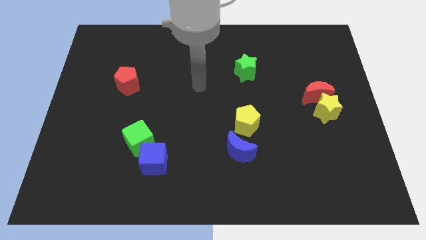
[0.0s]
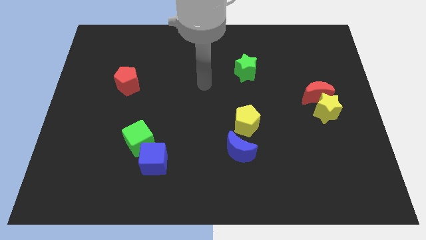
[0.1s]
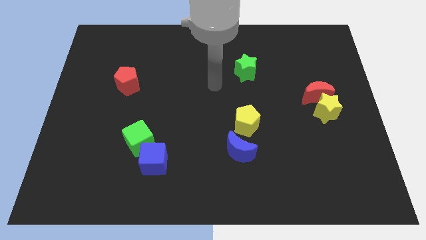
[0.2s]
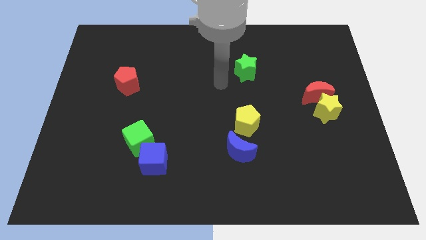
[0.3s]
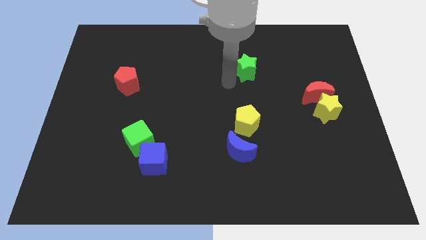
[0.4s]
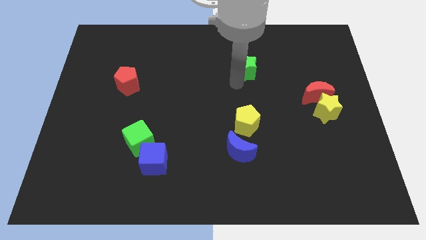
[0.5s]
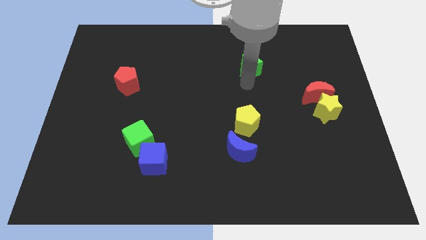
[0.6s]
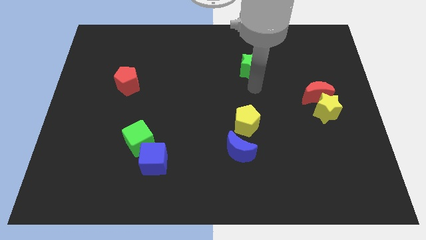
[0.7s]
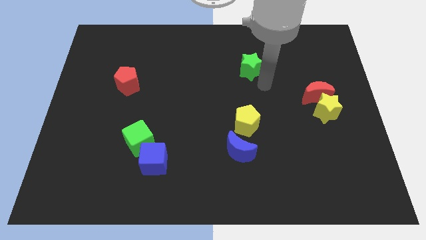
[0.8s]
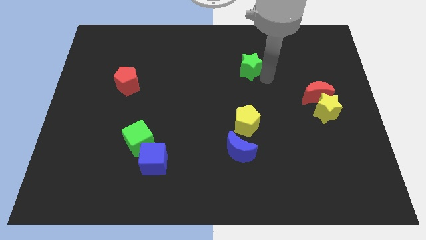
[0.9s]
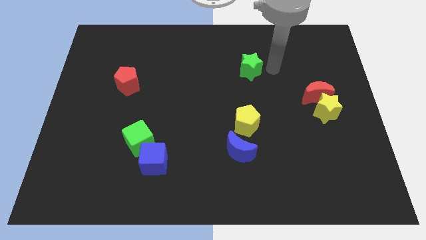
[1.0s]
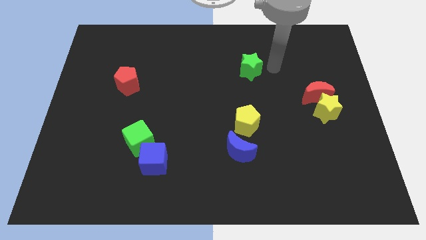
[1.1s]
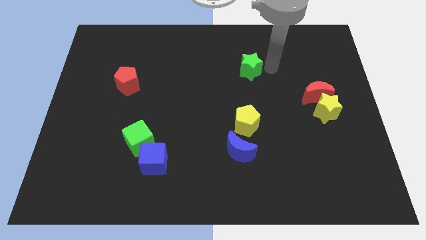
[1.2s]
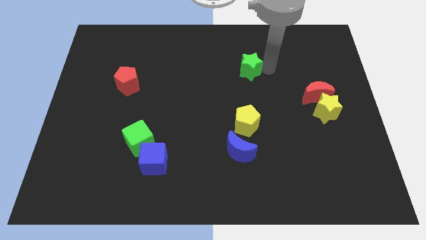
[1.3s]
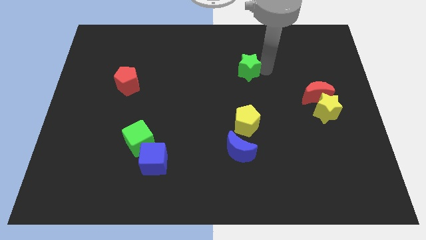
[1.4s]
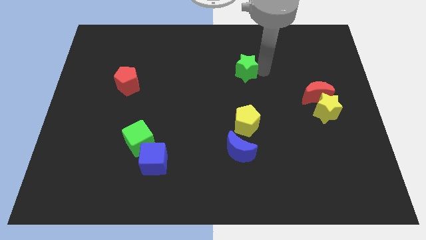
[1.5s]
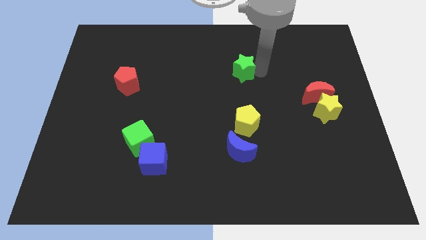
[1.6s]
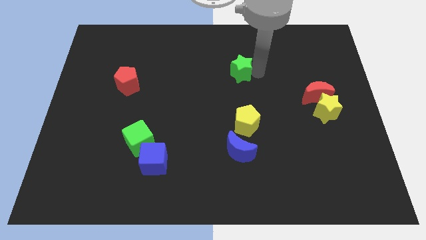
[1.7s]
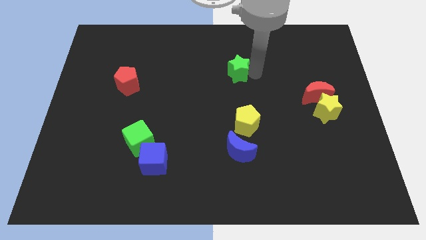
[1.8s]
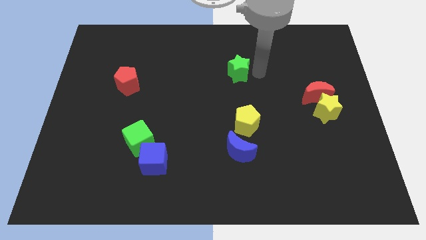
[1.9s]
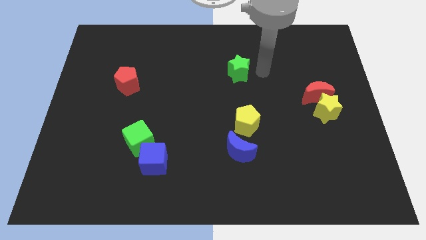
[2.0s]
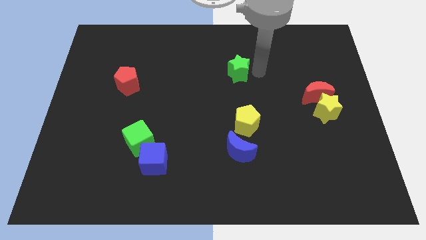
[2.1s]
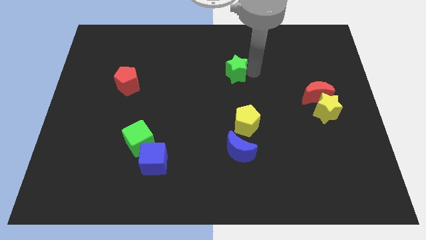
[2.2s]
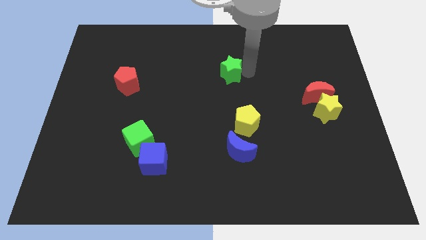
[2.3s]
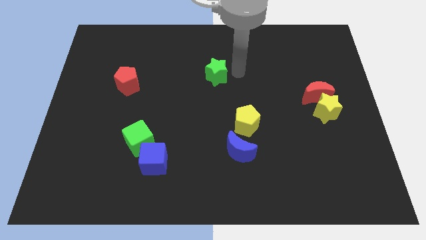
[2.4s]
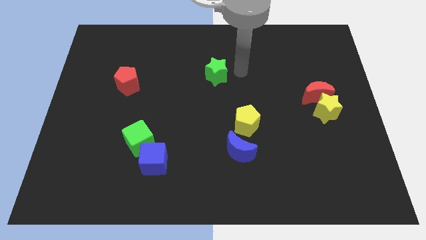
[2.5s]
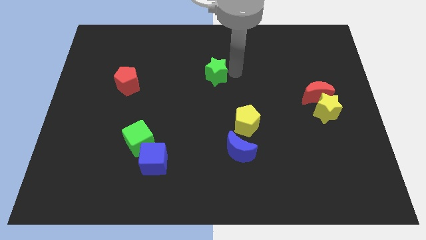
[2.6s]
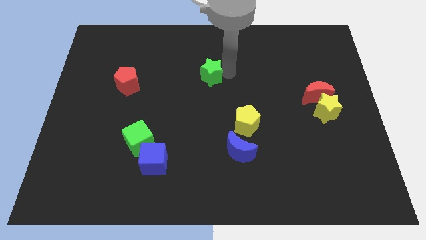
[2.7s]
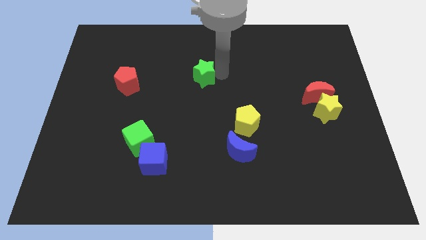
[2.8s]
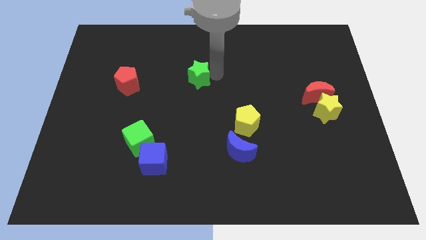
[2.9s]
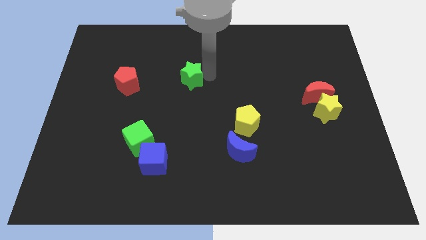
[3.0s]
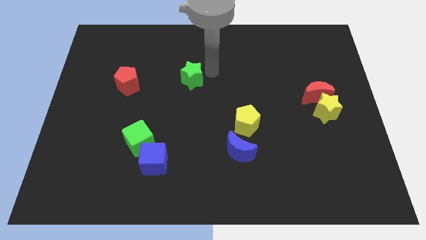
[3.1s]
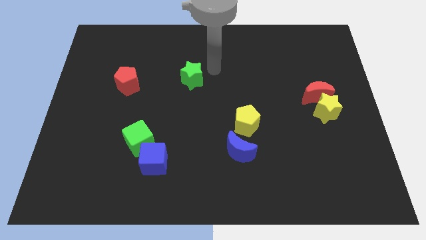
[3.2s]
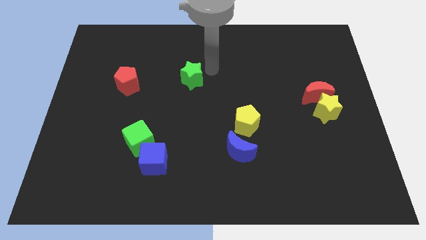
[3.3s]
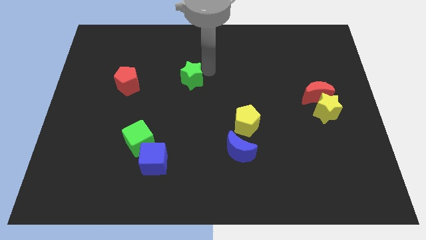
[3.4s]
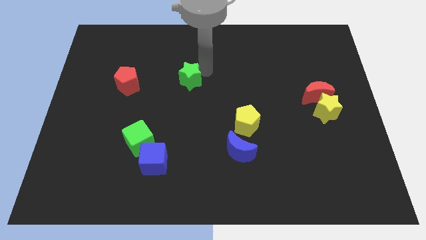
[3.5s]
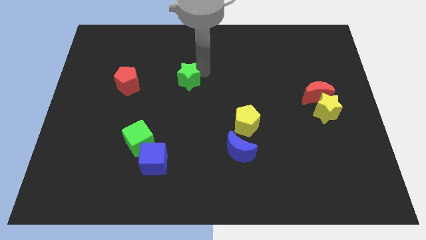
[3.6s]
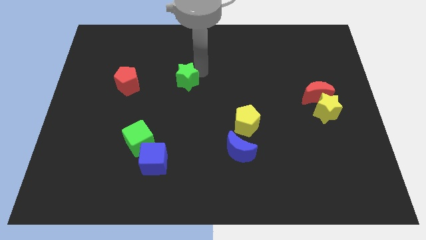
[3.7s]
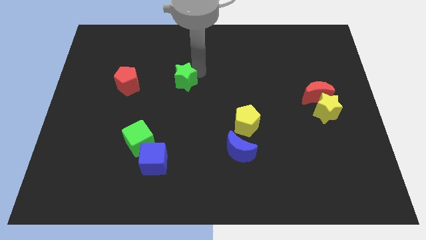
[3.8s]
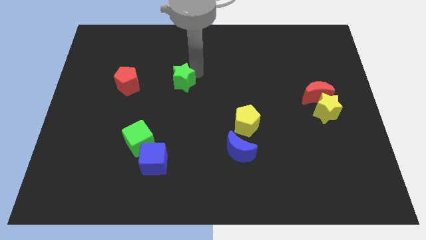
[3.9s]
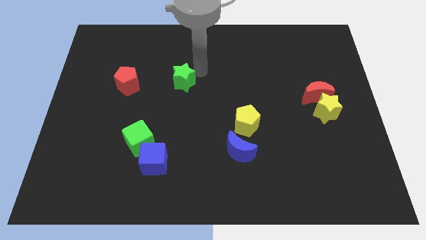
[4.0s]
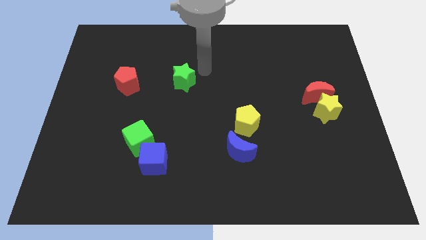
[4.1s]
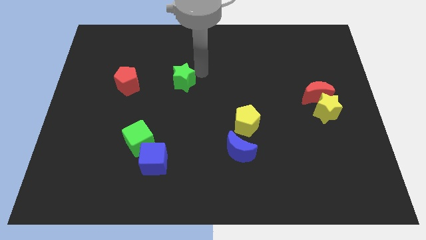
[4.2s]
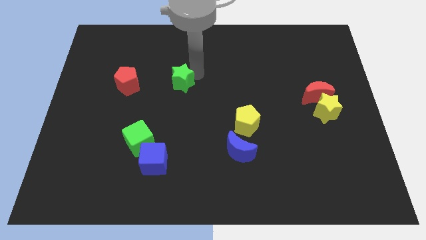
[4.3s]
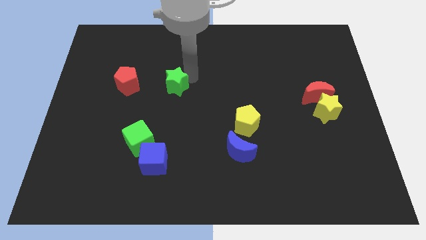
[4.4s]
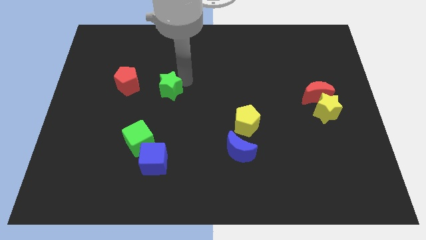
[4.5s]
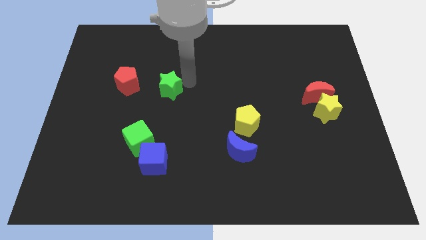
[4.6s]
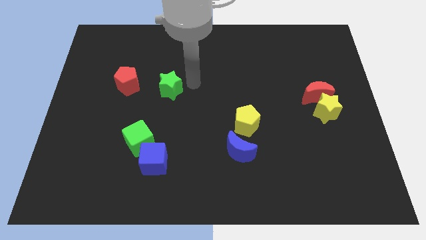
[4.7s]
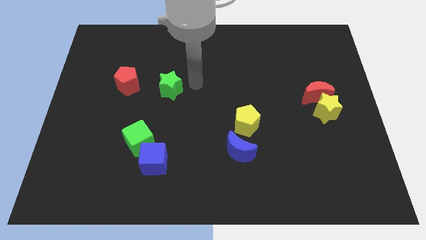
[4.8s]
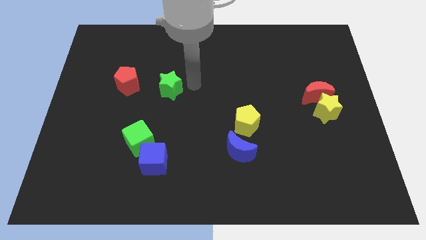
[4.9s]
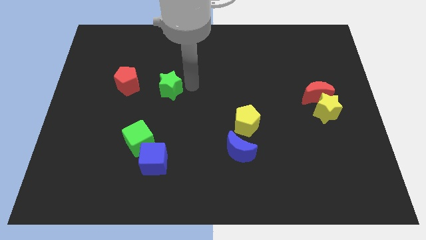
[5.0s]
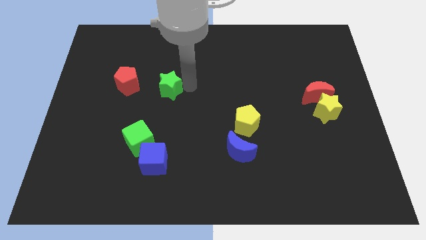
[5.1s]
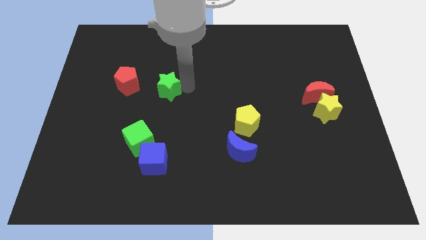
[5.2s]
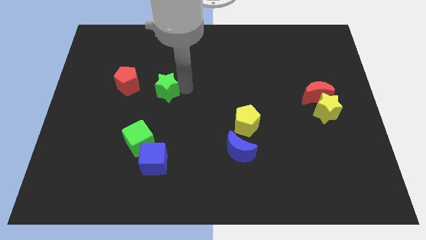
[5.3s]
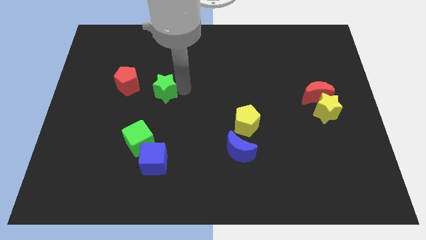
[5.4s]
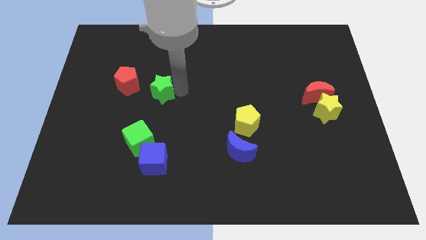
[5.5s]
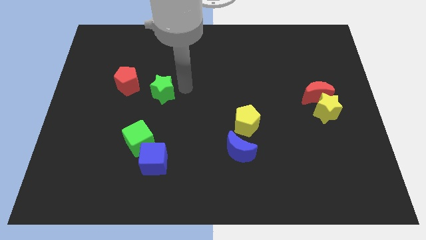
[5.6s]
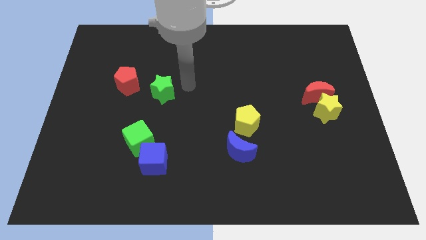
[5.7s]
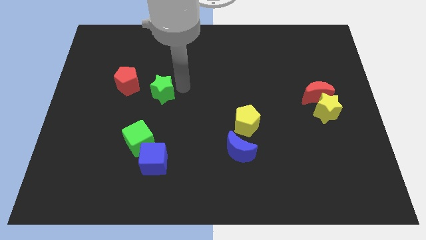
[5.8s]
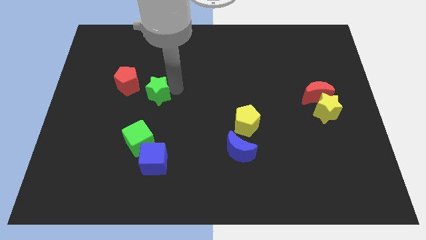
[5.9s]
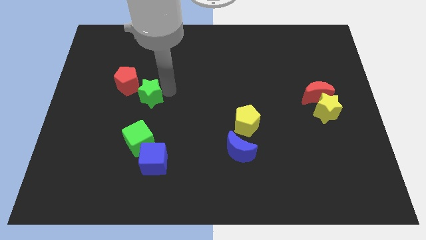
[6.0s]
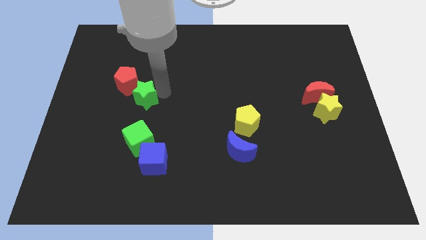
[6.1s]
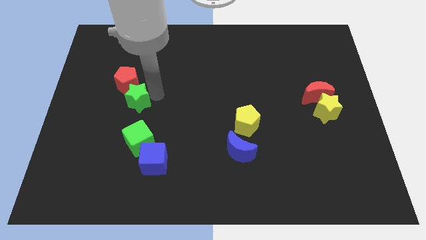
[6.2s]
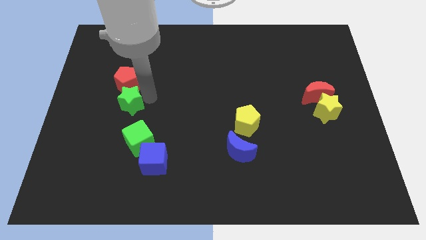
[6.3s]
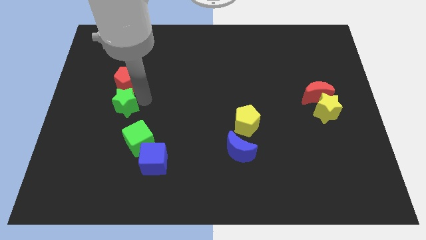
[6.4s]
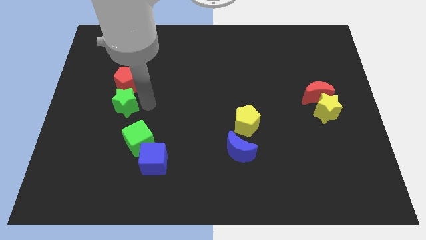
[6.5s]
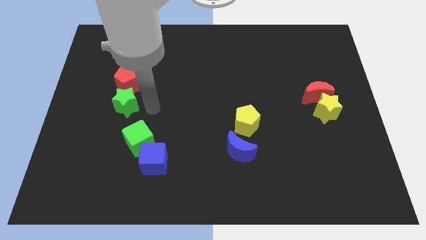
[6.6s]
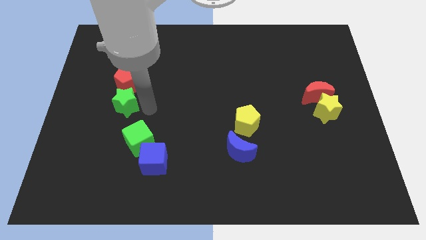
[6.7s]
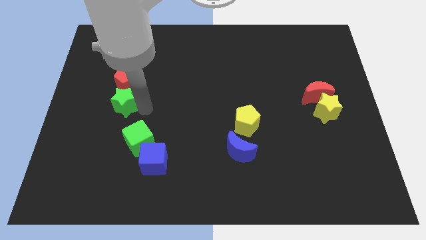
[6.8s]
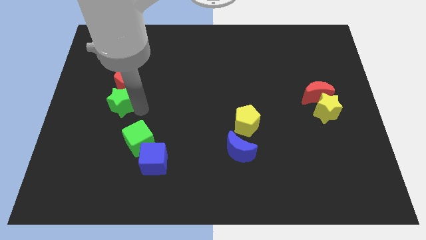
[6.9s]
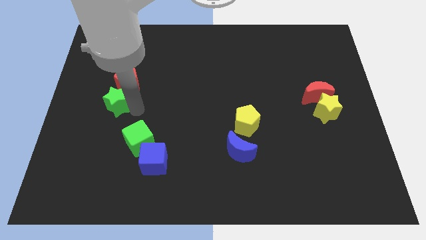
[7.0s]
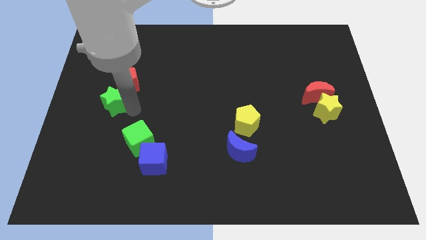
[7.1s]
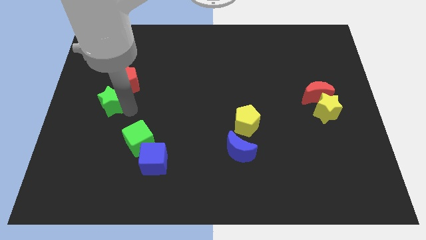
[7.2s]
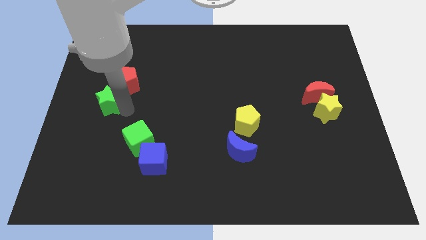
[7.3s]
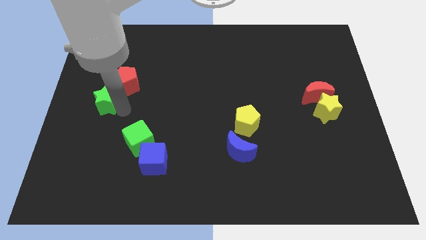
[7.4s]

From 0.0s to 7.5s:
push the green star to the center left
